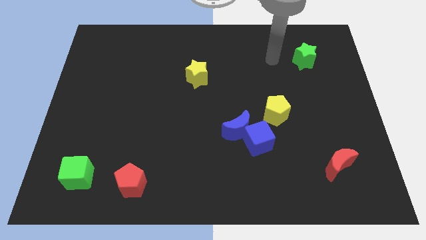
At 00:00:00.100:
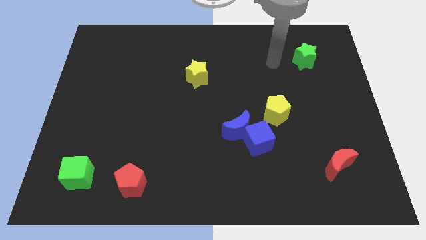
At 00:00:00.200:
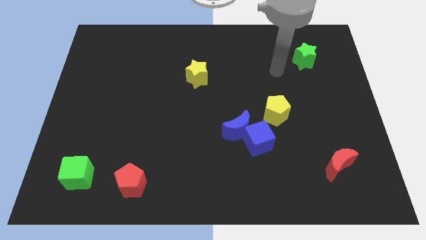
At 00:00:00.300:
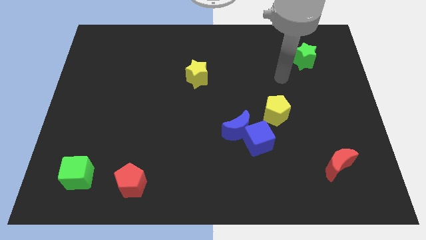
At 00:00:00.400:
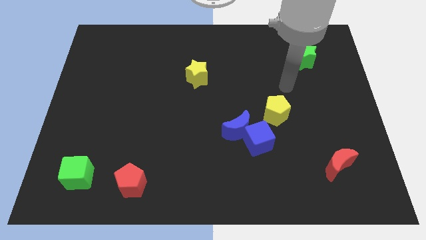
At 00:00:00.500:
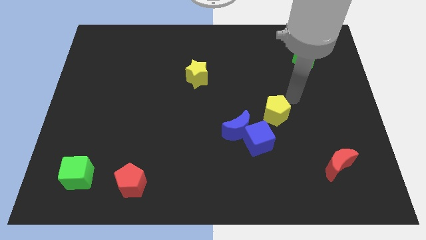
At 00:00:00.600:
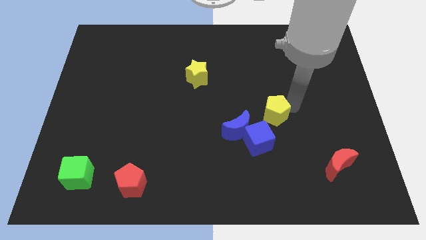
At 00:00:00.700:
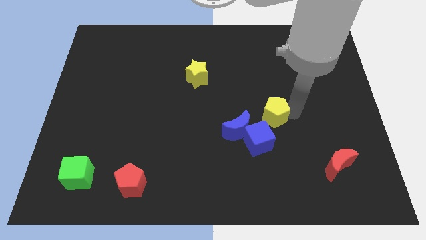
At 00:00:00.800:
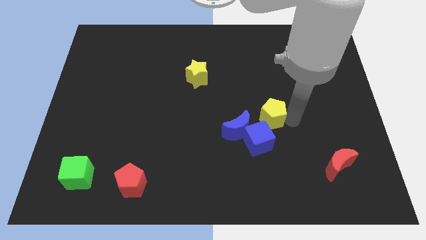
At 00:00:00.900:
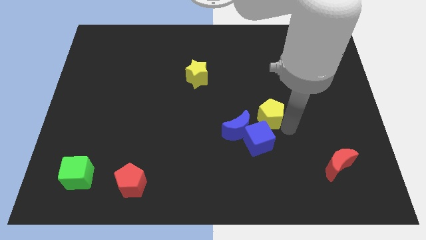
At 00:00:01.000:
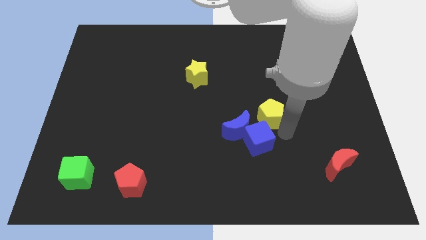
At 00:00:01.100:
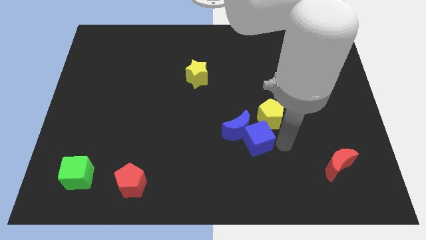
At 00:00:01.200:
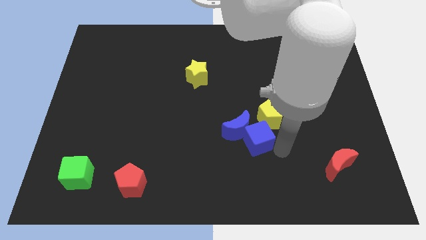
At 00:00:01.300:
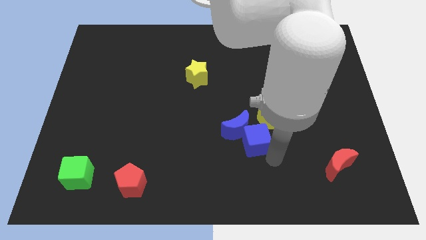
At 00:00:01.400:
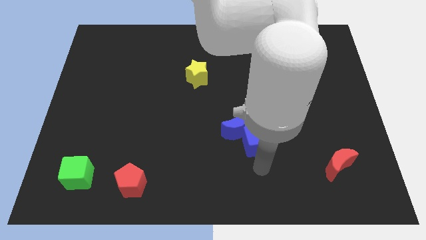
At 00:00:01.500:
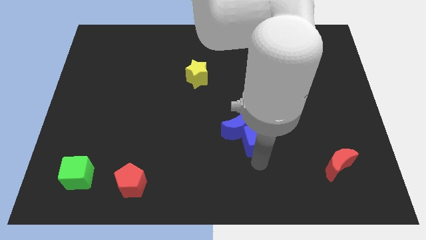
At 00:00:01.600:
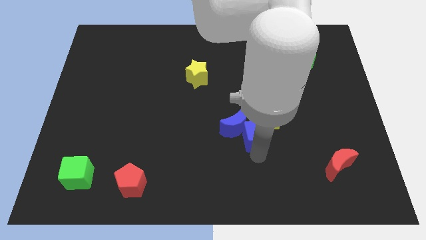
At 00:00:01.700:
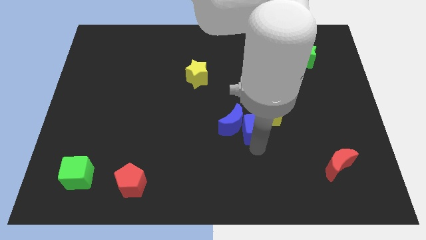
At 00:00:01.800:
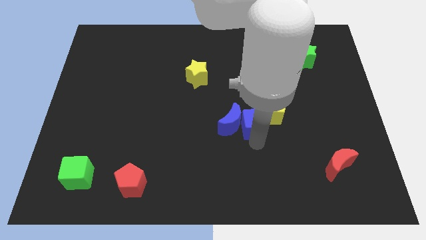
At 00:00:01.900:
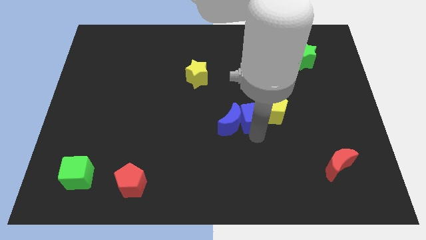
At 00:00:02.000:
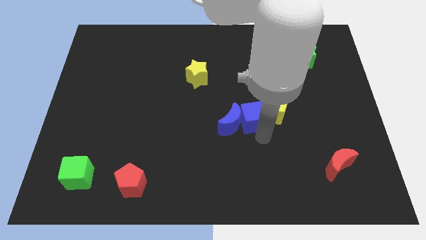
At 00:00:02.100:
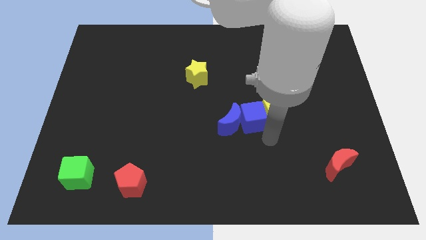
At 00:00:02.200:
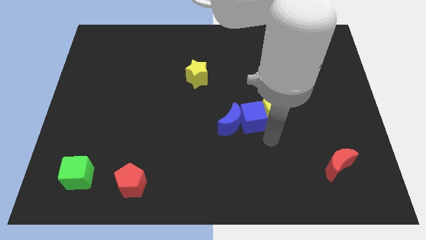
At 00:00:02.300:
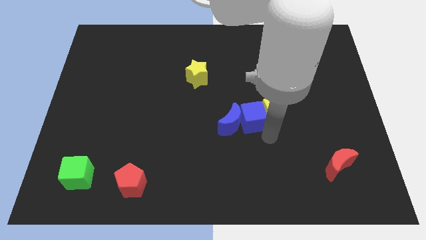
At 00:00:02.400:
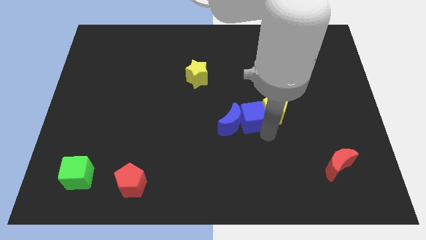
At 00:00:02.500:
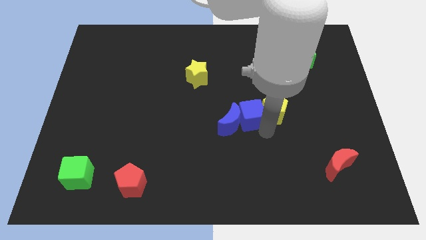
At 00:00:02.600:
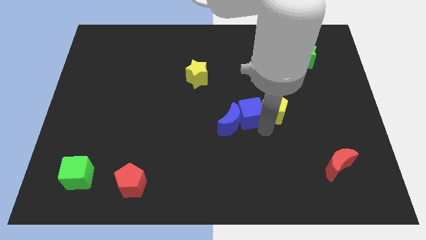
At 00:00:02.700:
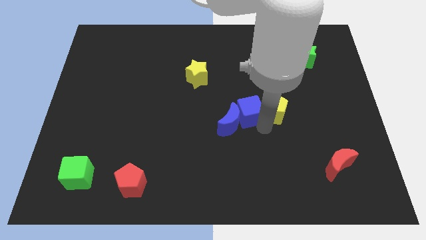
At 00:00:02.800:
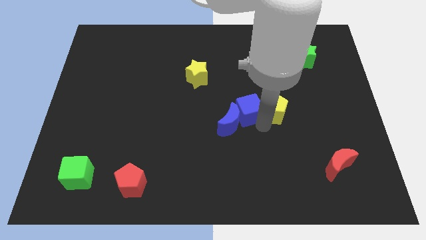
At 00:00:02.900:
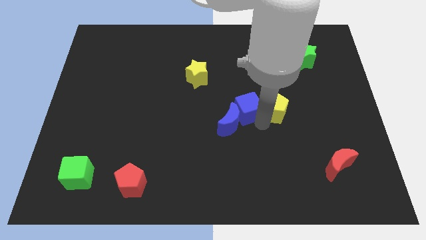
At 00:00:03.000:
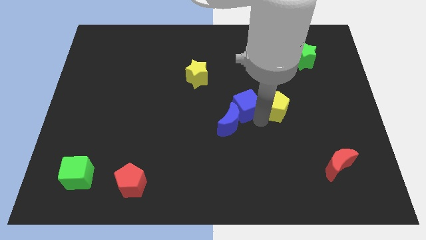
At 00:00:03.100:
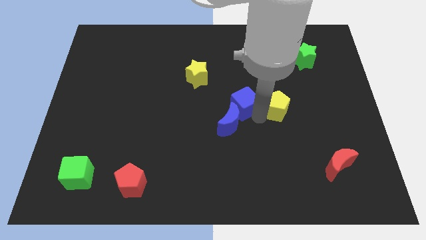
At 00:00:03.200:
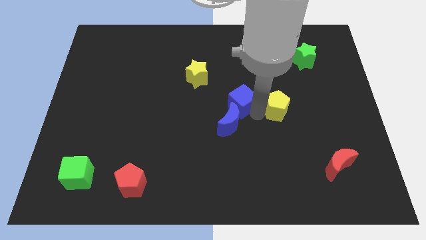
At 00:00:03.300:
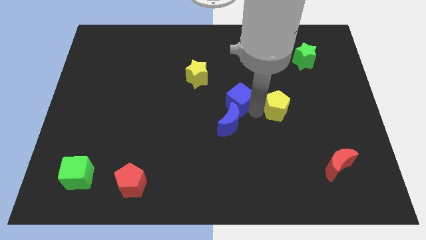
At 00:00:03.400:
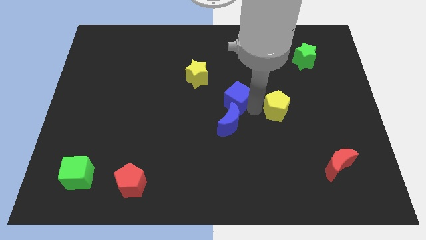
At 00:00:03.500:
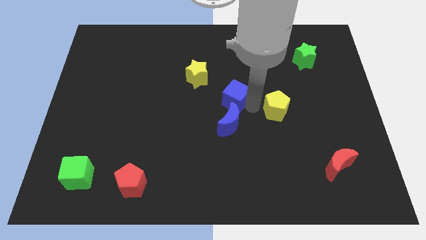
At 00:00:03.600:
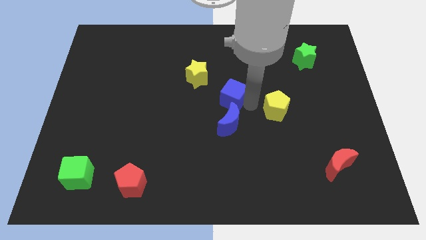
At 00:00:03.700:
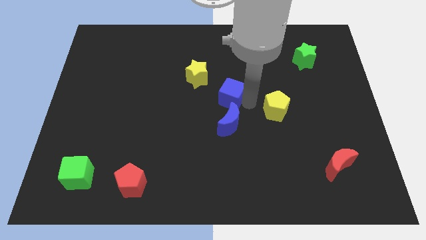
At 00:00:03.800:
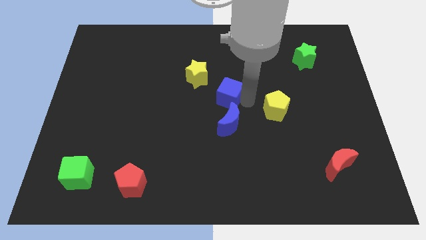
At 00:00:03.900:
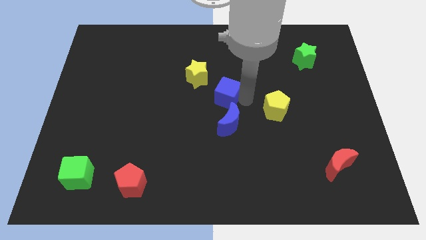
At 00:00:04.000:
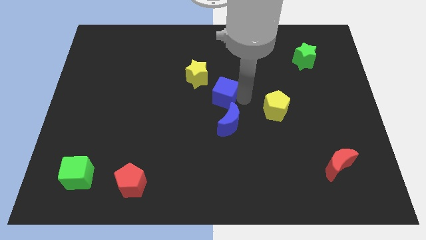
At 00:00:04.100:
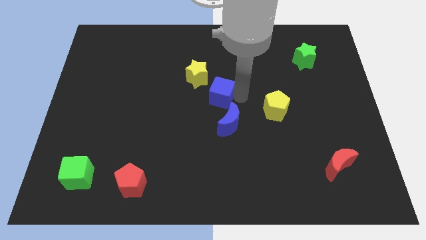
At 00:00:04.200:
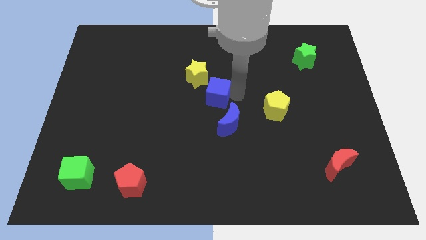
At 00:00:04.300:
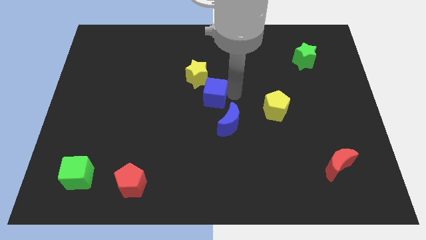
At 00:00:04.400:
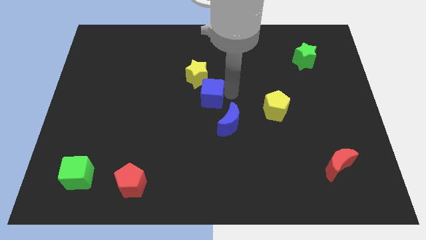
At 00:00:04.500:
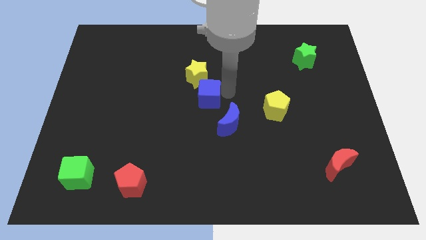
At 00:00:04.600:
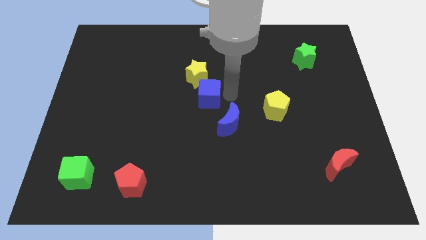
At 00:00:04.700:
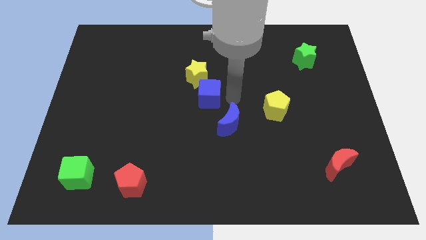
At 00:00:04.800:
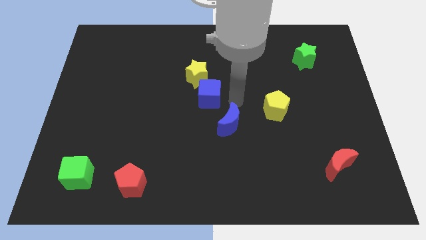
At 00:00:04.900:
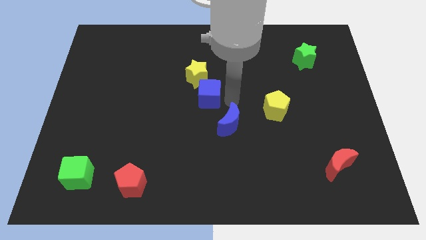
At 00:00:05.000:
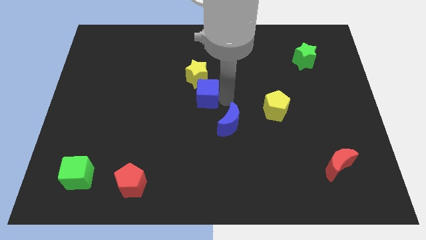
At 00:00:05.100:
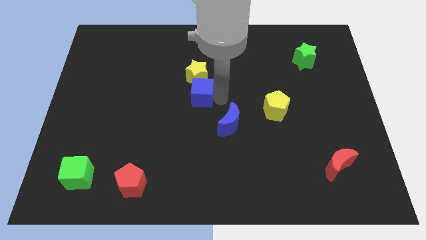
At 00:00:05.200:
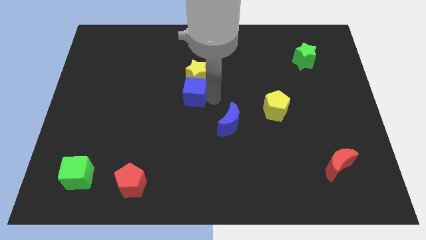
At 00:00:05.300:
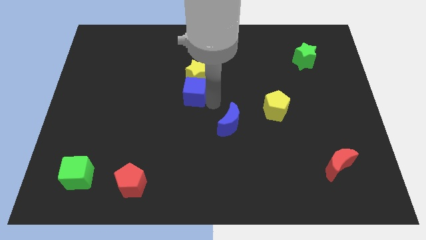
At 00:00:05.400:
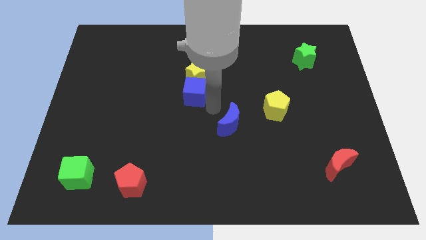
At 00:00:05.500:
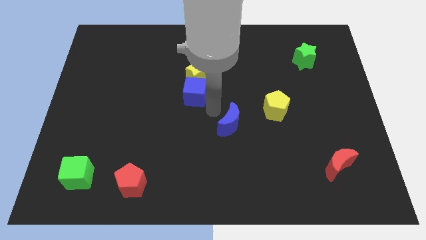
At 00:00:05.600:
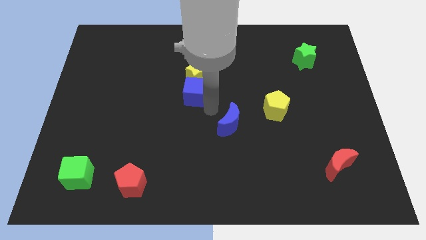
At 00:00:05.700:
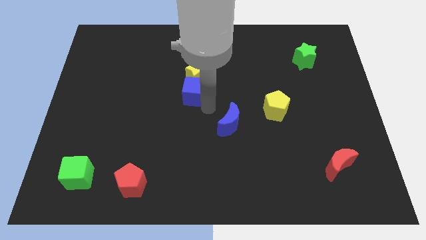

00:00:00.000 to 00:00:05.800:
push the blue cube diagonally upwards and left

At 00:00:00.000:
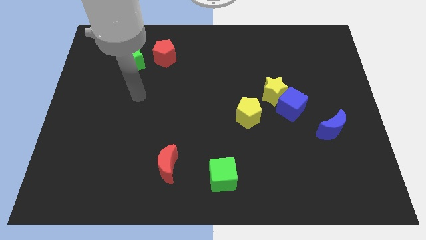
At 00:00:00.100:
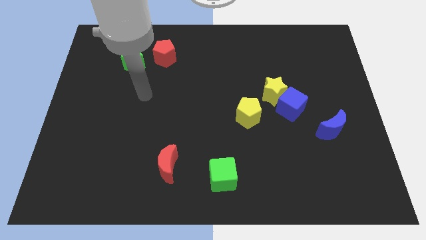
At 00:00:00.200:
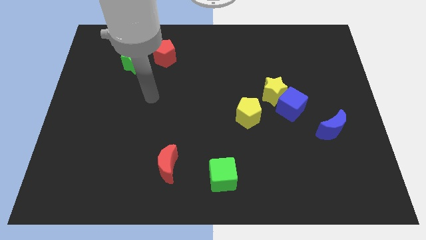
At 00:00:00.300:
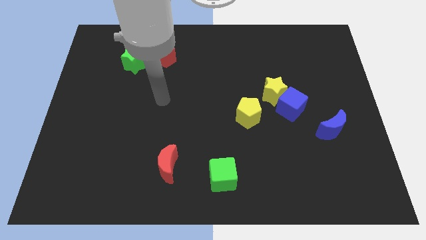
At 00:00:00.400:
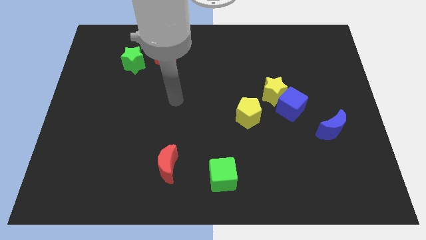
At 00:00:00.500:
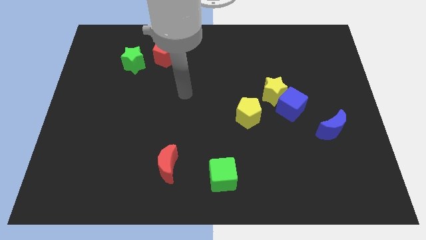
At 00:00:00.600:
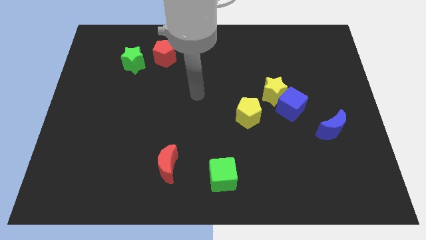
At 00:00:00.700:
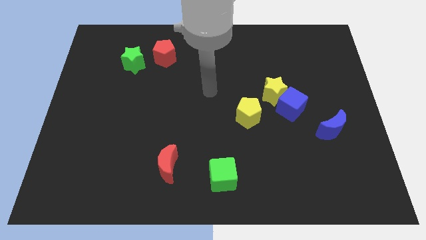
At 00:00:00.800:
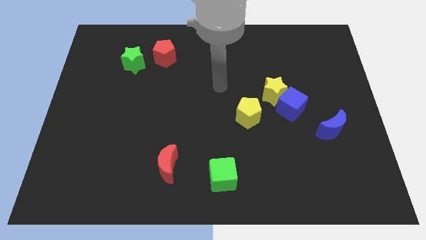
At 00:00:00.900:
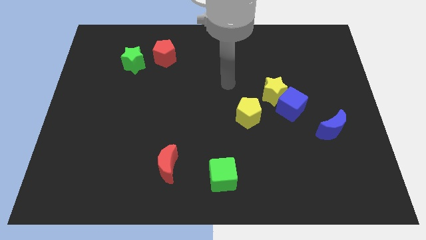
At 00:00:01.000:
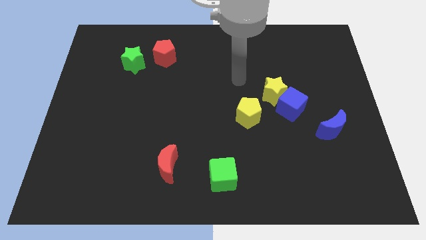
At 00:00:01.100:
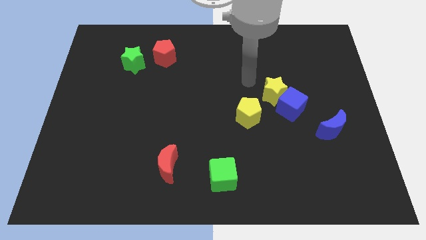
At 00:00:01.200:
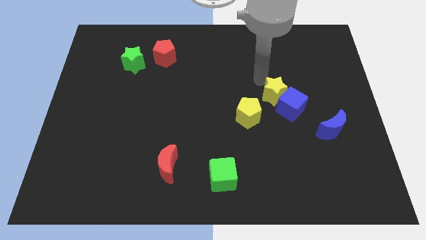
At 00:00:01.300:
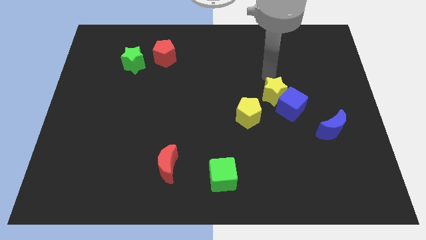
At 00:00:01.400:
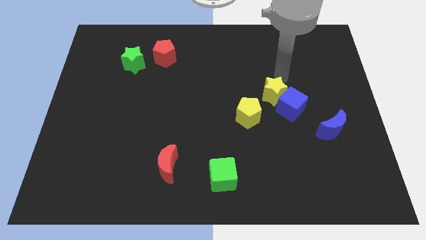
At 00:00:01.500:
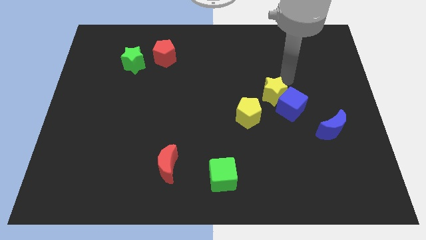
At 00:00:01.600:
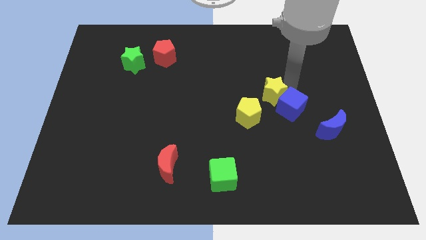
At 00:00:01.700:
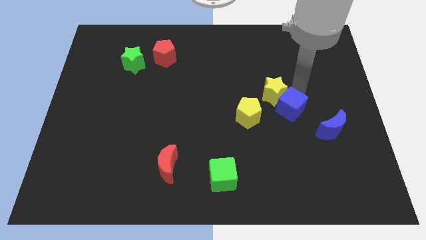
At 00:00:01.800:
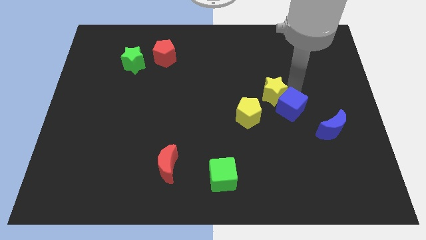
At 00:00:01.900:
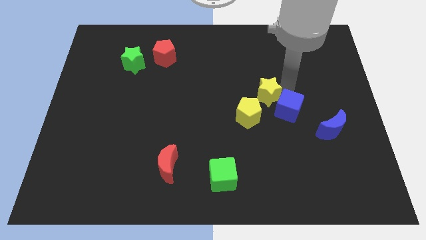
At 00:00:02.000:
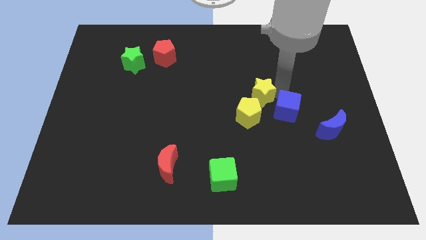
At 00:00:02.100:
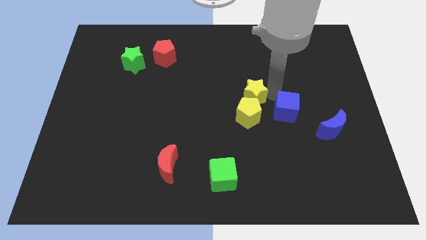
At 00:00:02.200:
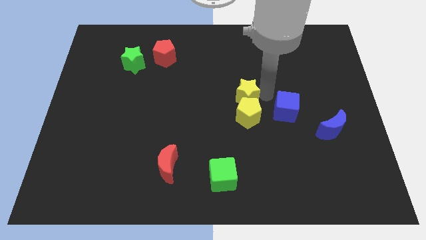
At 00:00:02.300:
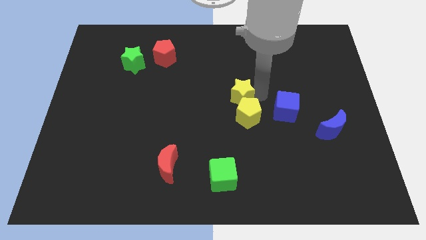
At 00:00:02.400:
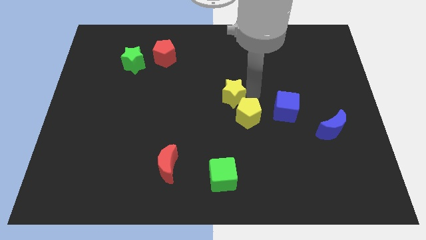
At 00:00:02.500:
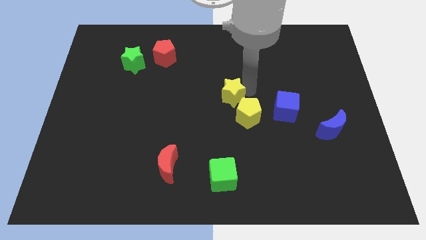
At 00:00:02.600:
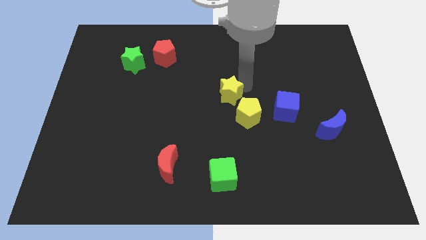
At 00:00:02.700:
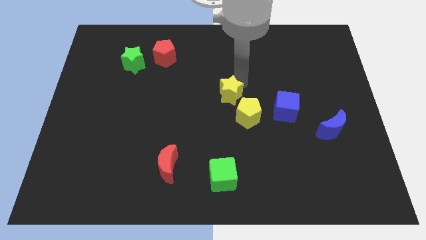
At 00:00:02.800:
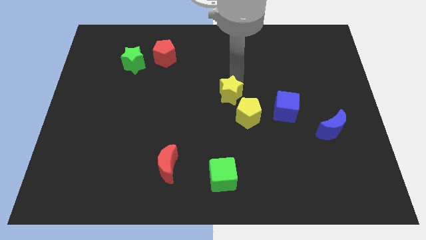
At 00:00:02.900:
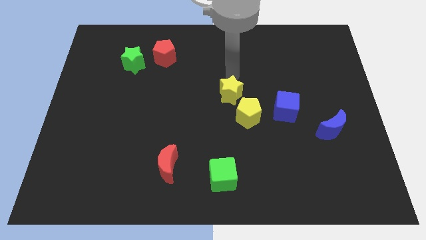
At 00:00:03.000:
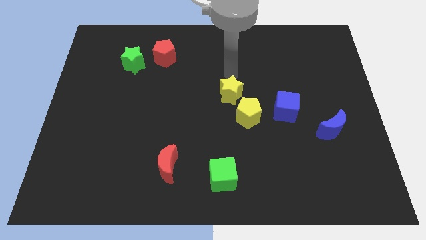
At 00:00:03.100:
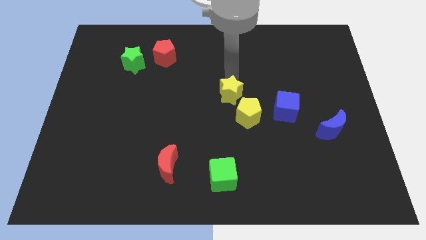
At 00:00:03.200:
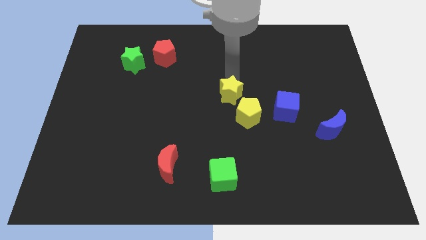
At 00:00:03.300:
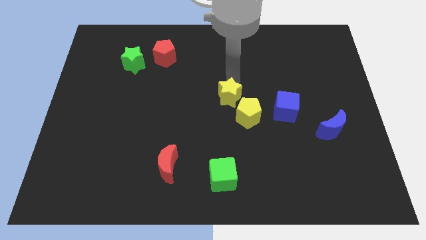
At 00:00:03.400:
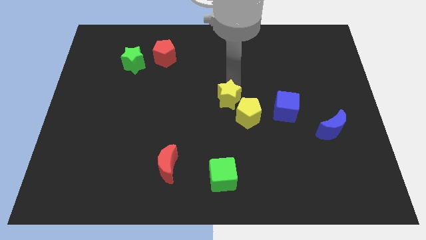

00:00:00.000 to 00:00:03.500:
slightly slide the yellow star diagonally down and to the left
